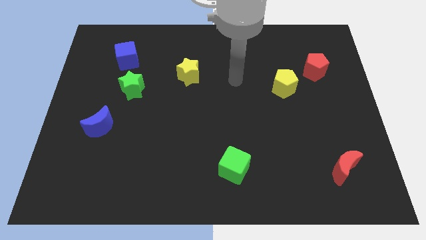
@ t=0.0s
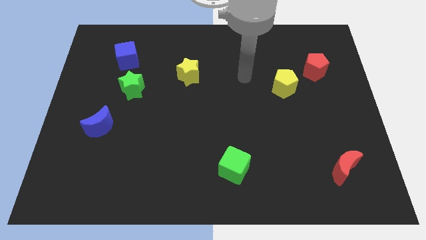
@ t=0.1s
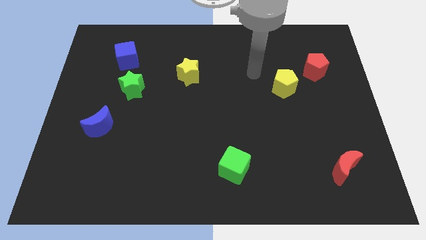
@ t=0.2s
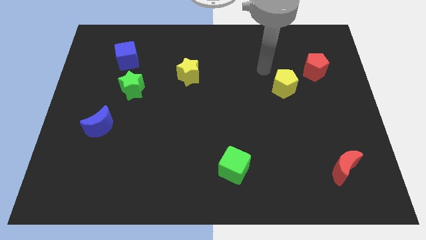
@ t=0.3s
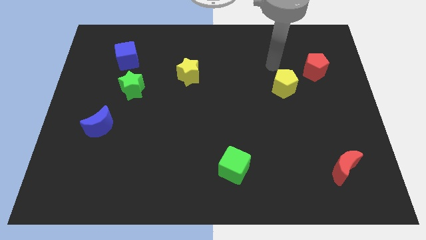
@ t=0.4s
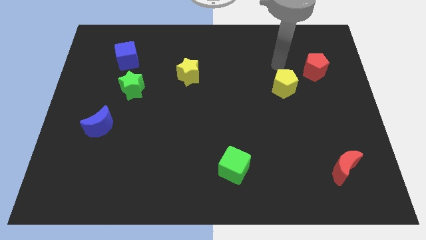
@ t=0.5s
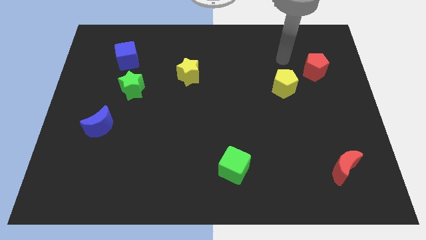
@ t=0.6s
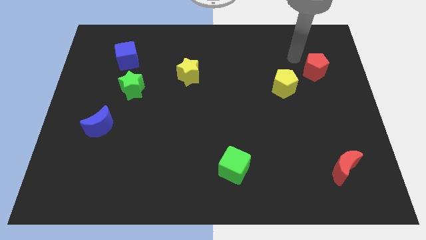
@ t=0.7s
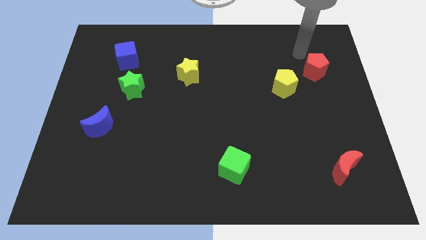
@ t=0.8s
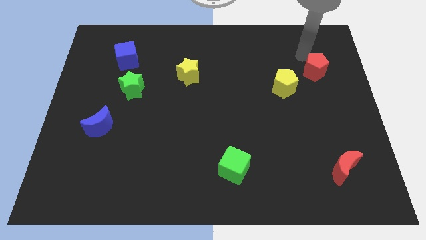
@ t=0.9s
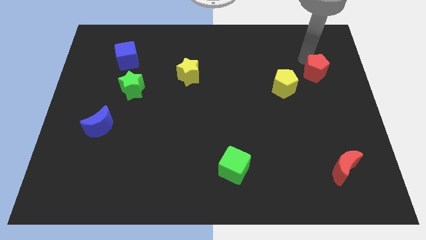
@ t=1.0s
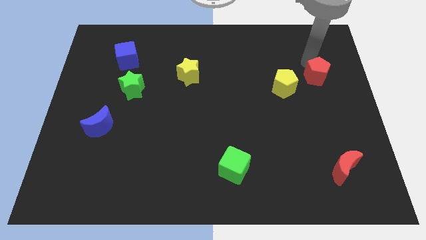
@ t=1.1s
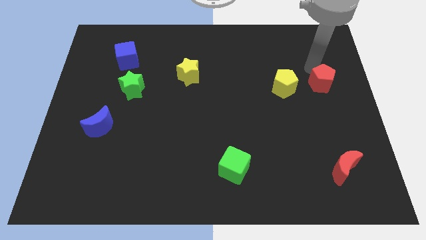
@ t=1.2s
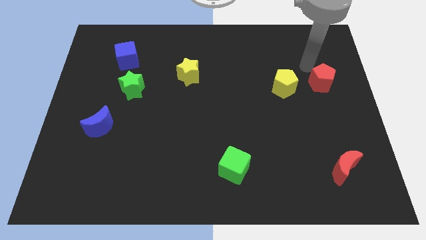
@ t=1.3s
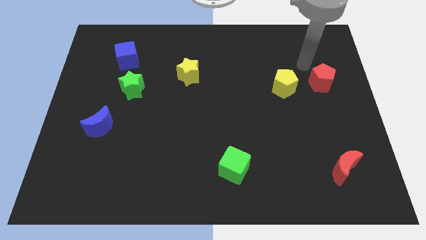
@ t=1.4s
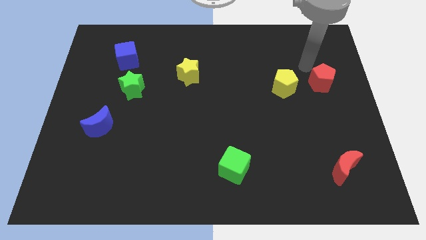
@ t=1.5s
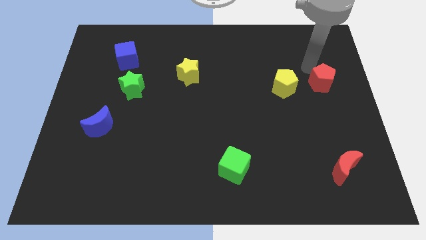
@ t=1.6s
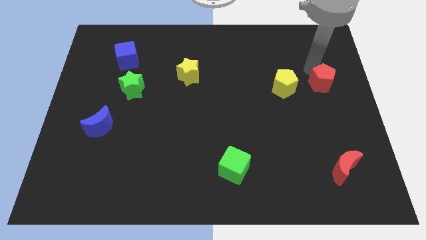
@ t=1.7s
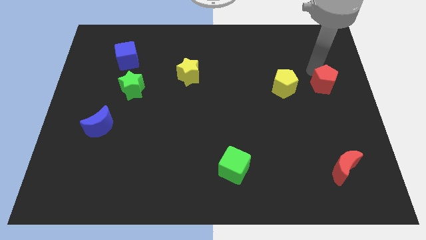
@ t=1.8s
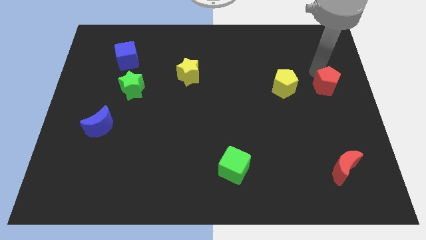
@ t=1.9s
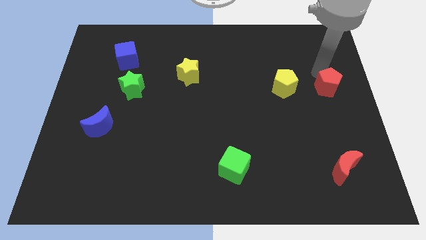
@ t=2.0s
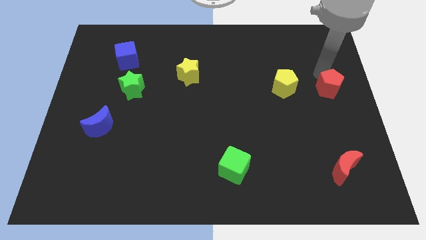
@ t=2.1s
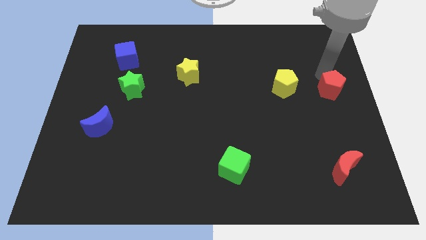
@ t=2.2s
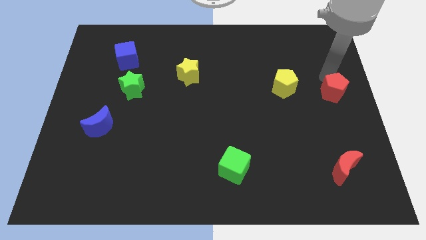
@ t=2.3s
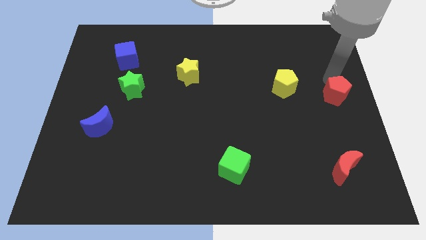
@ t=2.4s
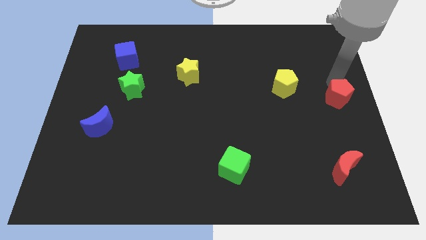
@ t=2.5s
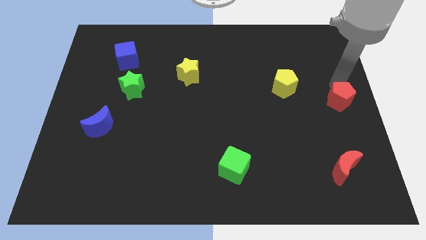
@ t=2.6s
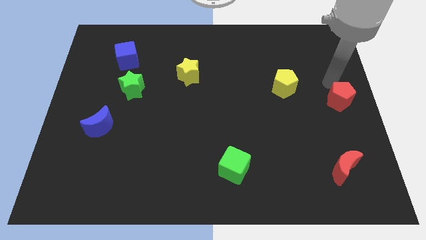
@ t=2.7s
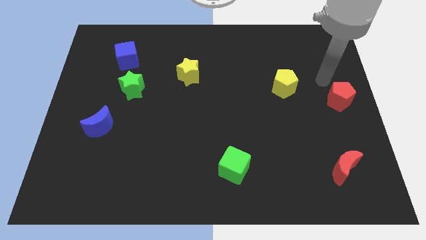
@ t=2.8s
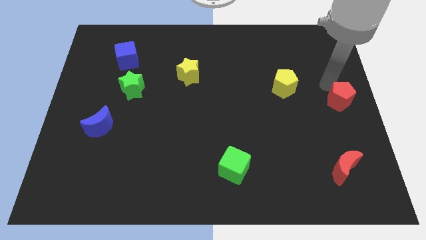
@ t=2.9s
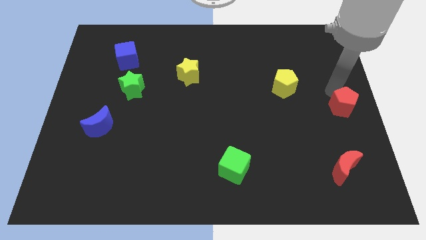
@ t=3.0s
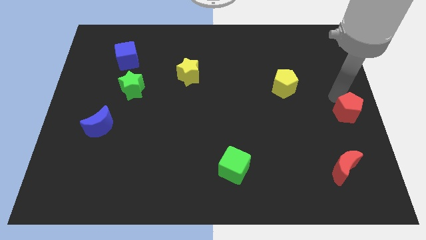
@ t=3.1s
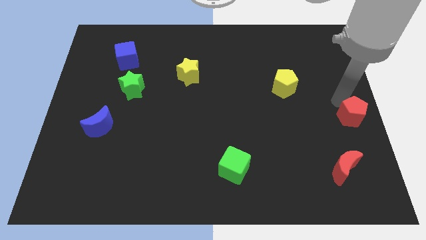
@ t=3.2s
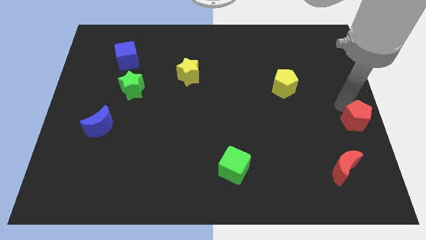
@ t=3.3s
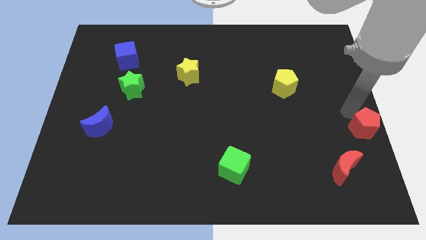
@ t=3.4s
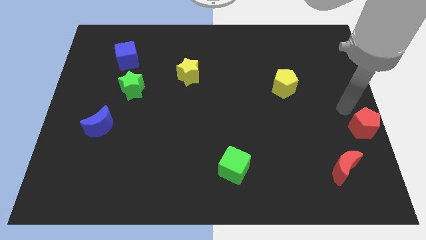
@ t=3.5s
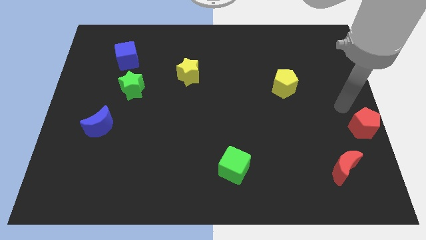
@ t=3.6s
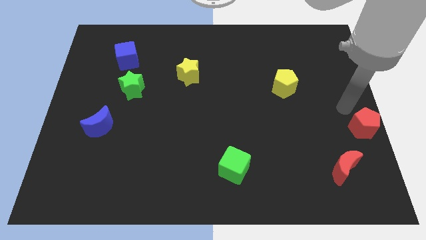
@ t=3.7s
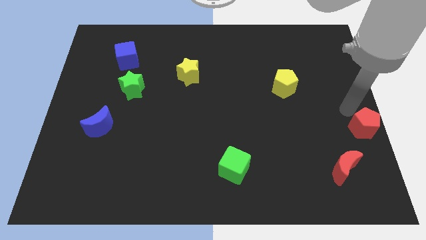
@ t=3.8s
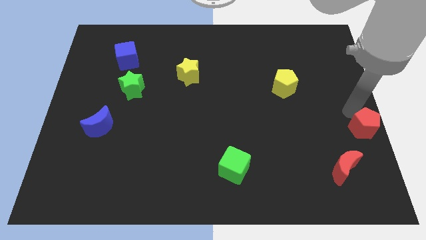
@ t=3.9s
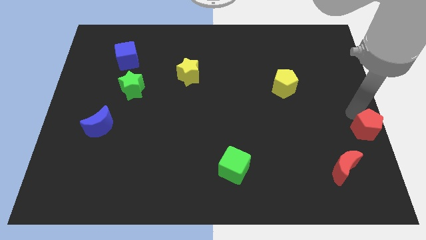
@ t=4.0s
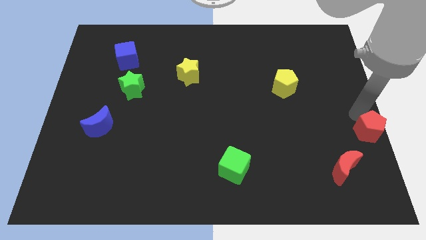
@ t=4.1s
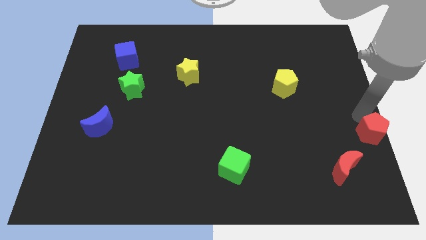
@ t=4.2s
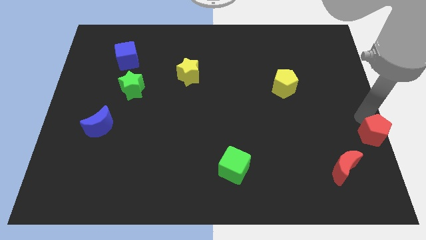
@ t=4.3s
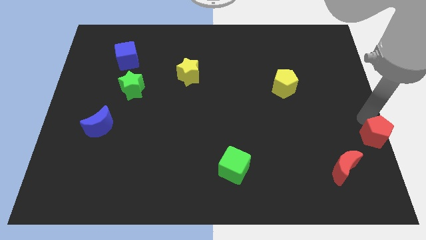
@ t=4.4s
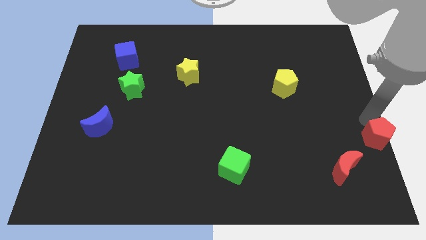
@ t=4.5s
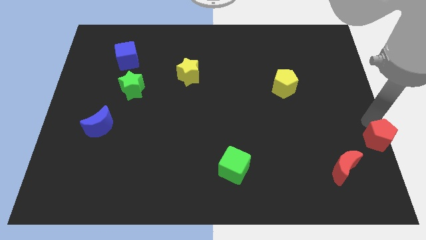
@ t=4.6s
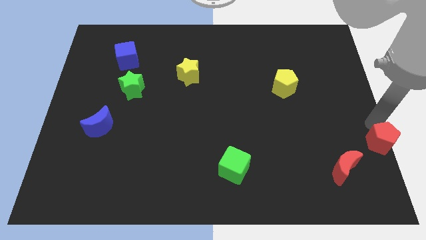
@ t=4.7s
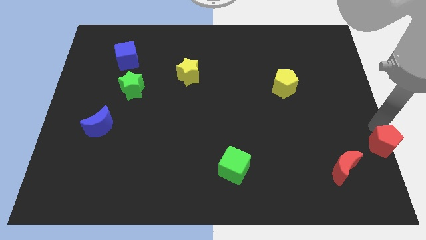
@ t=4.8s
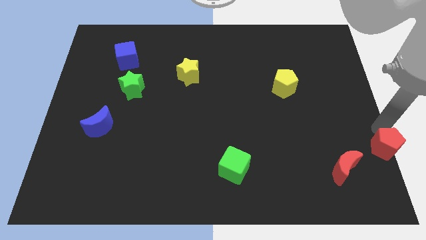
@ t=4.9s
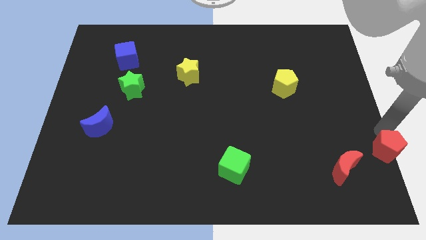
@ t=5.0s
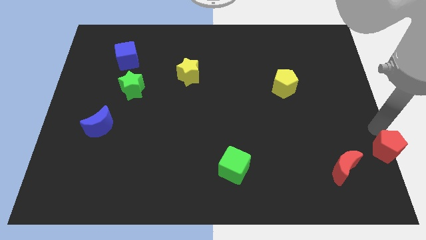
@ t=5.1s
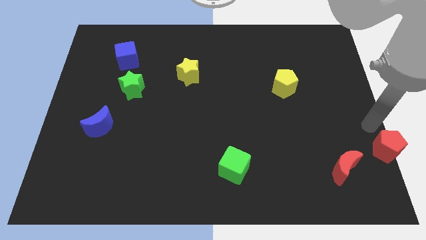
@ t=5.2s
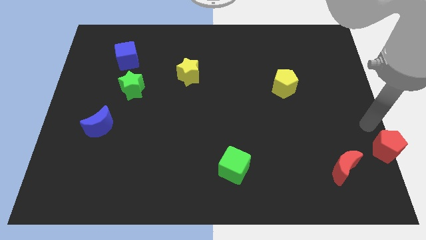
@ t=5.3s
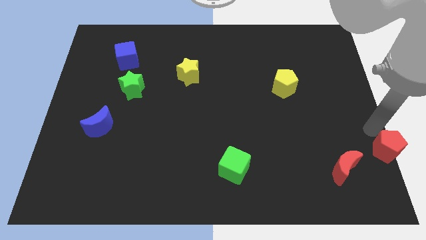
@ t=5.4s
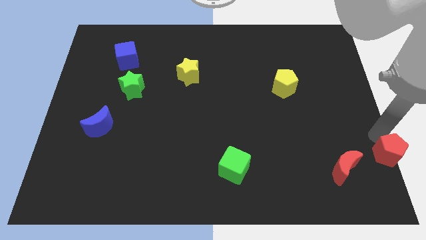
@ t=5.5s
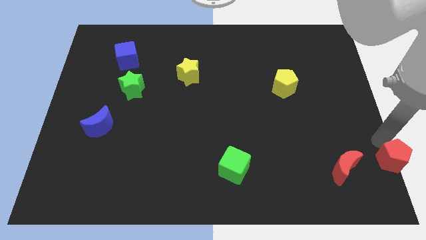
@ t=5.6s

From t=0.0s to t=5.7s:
move the red pentagon to the bottom right of the board

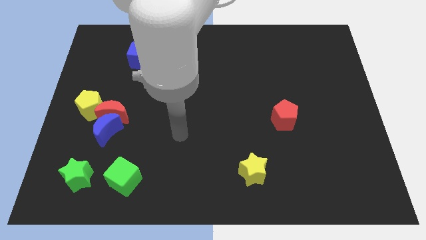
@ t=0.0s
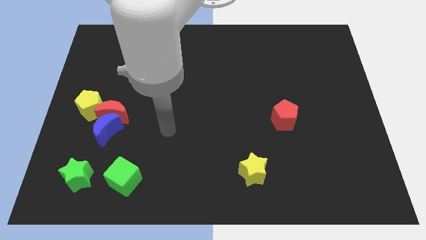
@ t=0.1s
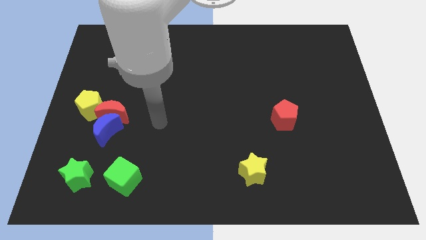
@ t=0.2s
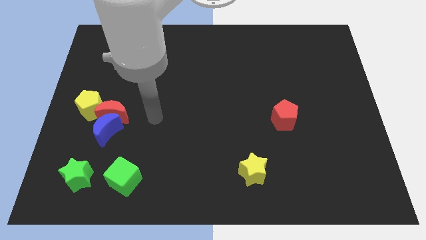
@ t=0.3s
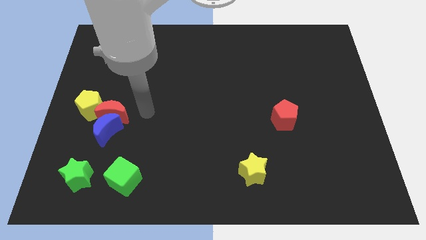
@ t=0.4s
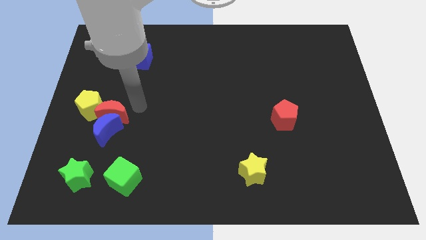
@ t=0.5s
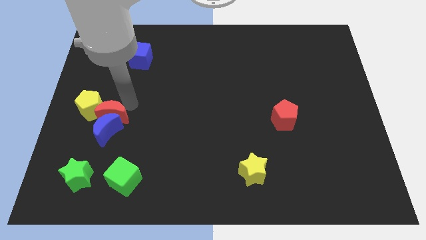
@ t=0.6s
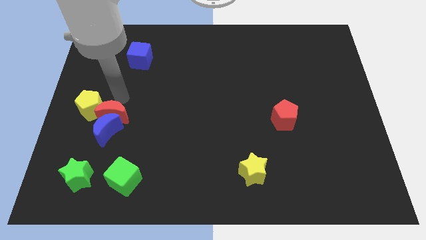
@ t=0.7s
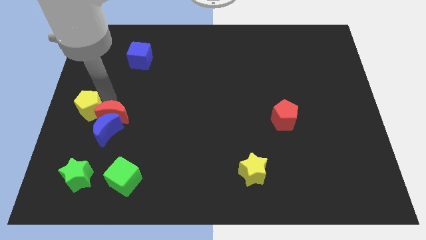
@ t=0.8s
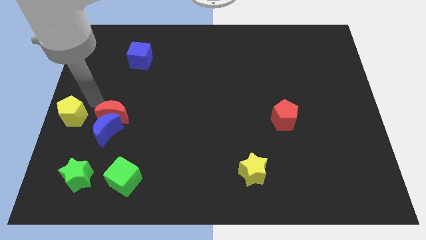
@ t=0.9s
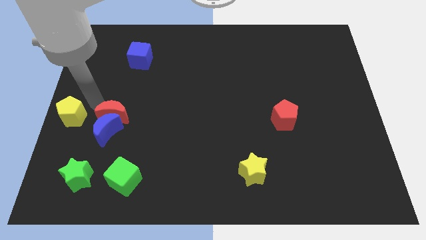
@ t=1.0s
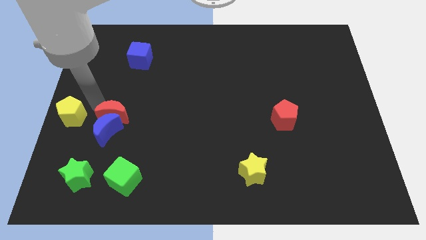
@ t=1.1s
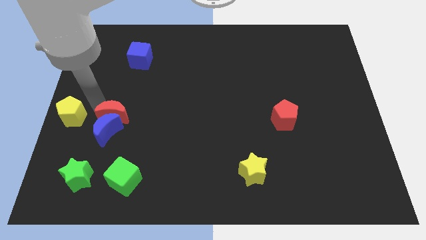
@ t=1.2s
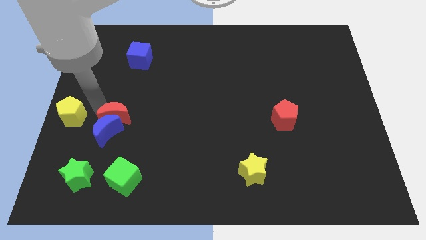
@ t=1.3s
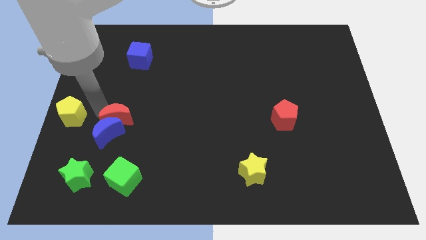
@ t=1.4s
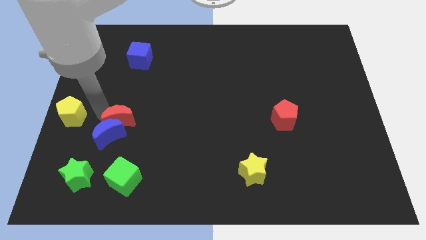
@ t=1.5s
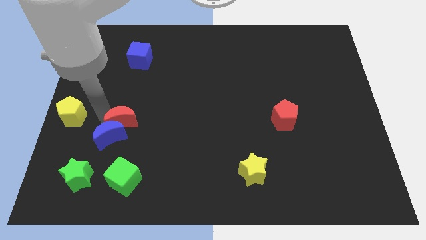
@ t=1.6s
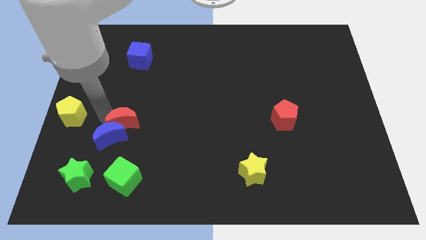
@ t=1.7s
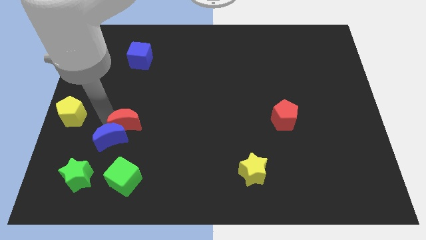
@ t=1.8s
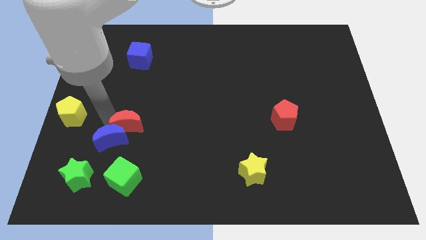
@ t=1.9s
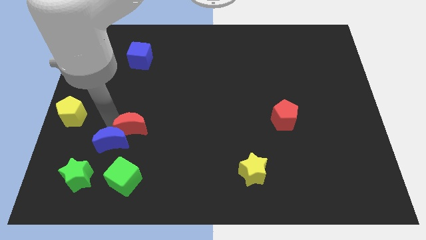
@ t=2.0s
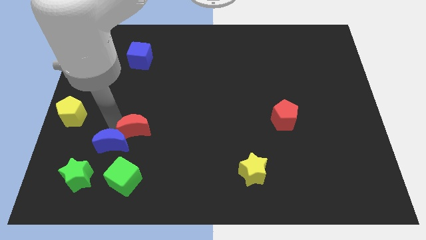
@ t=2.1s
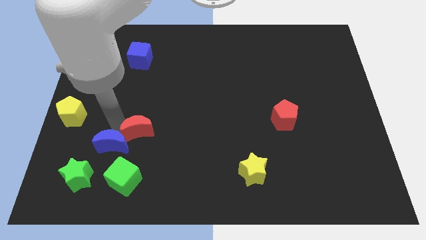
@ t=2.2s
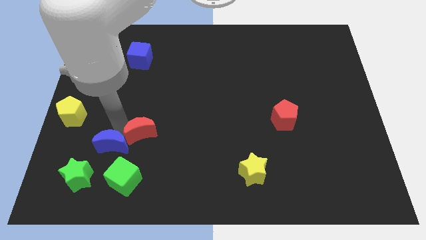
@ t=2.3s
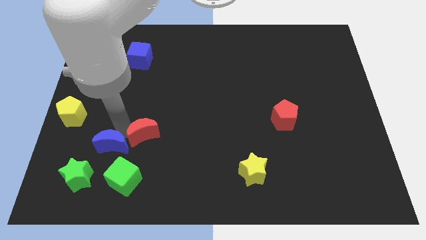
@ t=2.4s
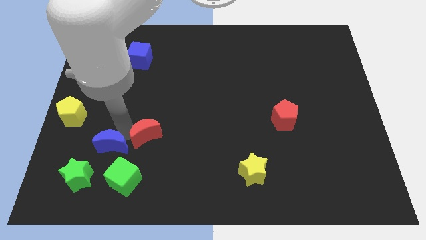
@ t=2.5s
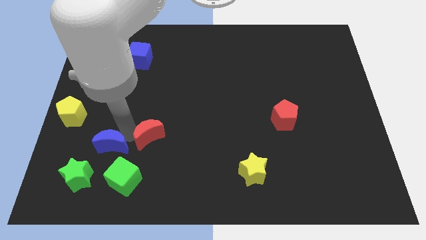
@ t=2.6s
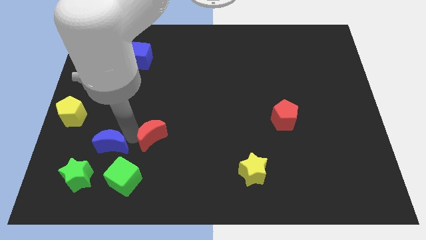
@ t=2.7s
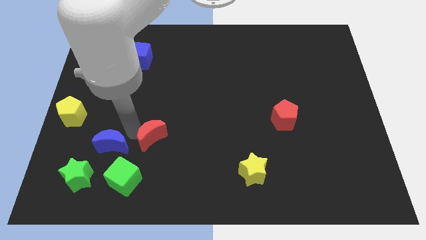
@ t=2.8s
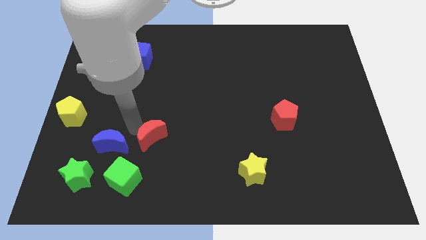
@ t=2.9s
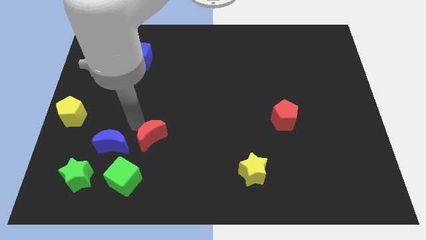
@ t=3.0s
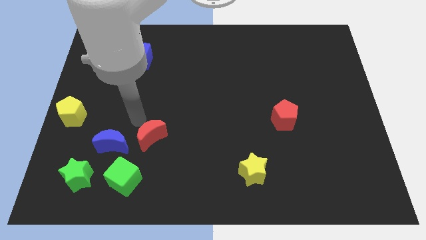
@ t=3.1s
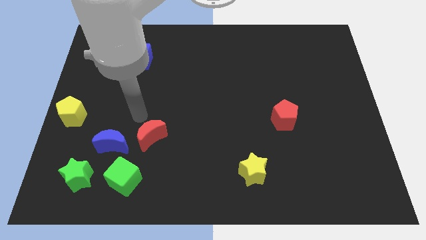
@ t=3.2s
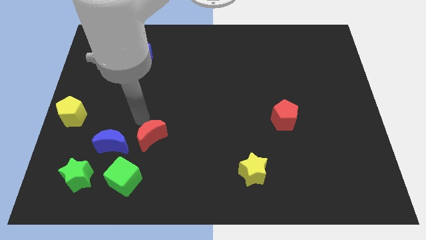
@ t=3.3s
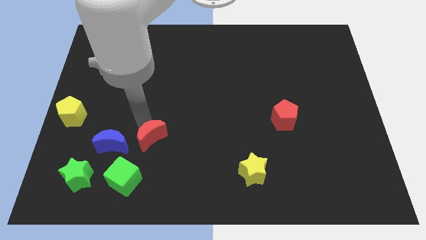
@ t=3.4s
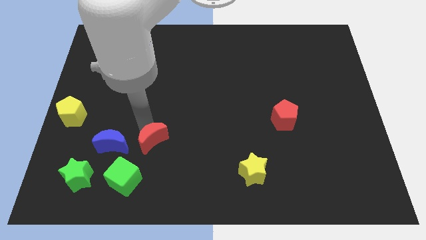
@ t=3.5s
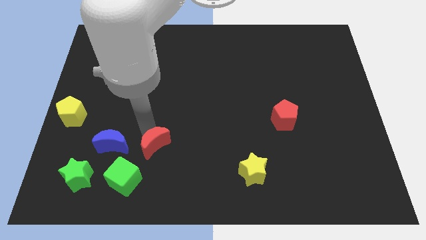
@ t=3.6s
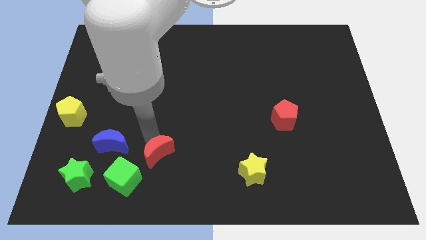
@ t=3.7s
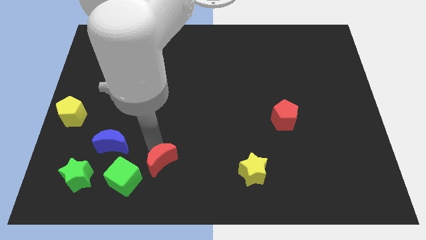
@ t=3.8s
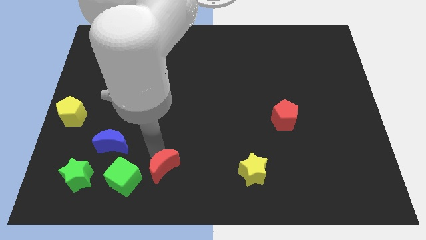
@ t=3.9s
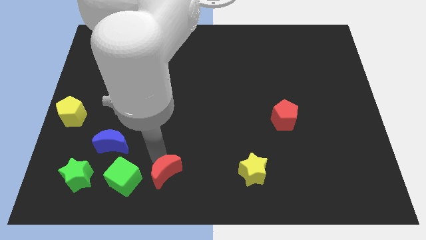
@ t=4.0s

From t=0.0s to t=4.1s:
slide the red moon to the bottom
